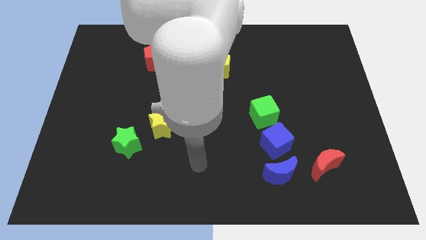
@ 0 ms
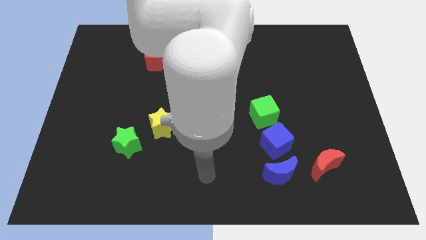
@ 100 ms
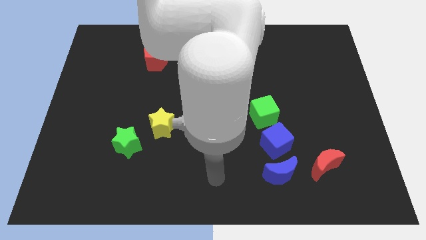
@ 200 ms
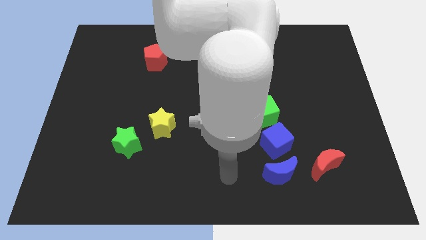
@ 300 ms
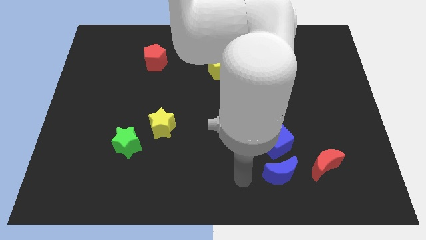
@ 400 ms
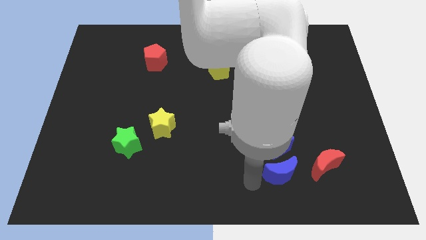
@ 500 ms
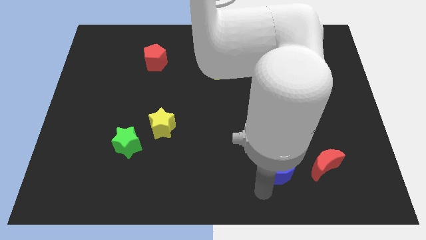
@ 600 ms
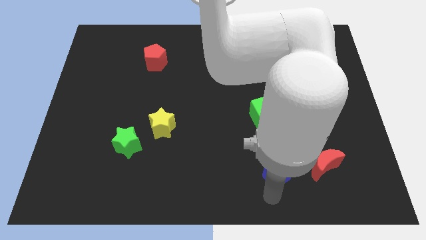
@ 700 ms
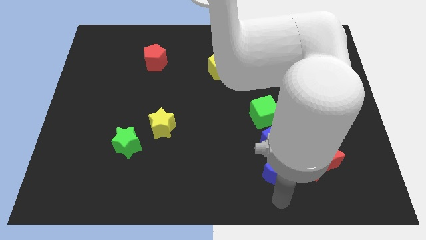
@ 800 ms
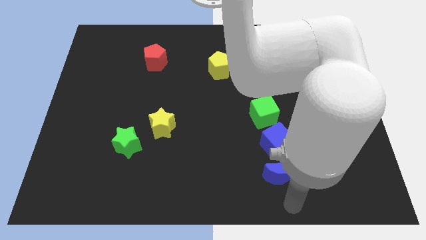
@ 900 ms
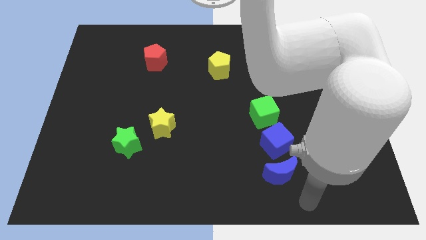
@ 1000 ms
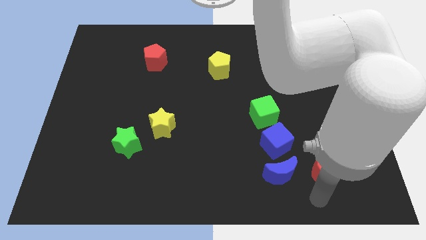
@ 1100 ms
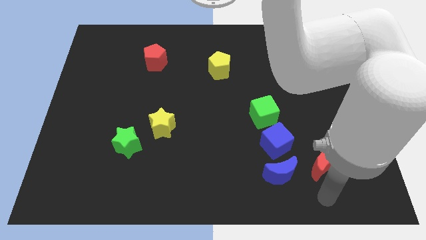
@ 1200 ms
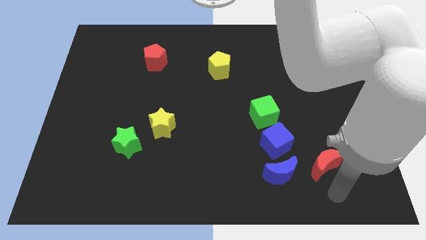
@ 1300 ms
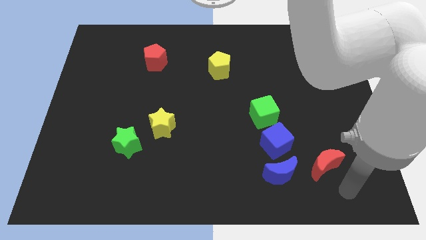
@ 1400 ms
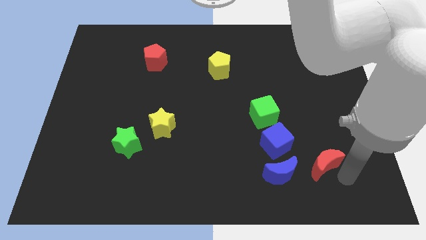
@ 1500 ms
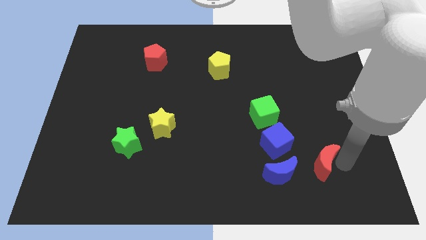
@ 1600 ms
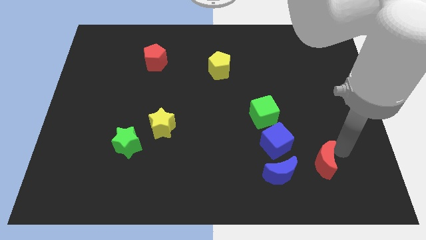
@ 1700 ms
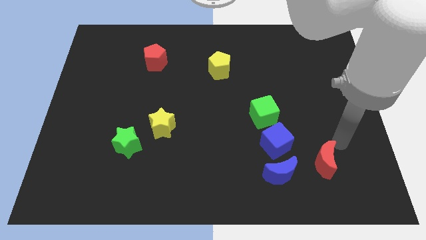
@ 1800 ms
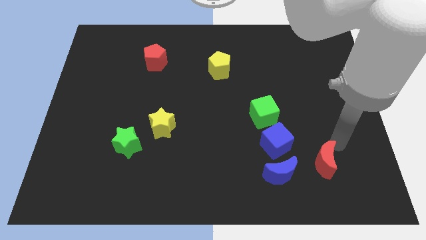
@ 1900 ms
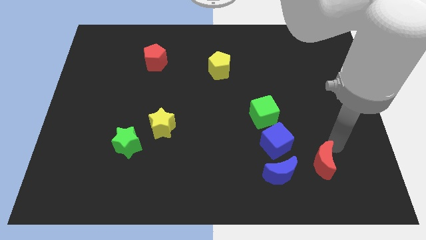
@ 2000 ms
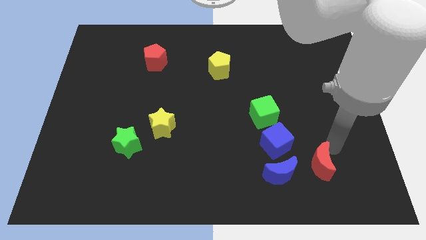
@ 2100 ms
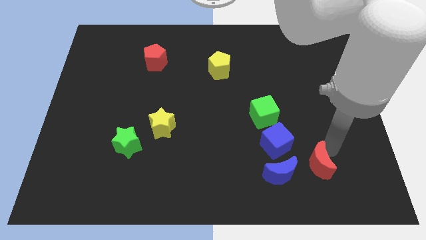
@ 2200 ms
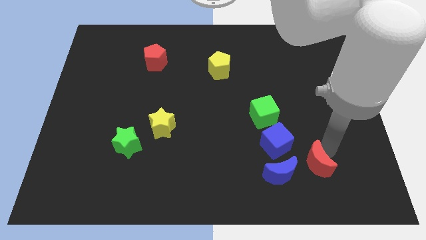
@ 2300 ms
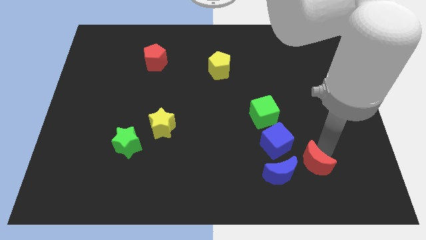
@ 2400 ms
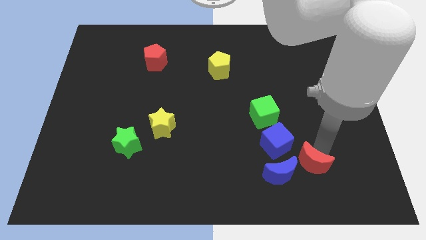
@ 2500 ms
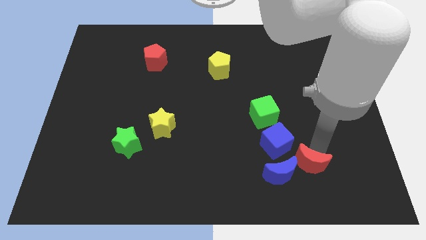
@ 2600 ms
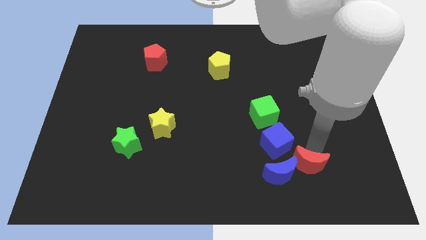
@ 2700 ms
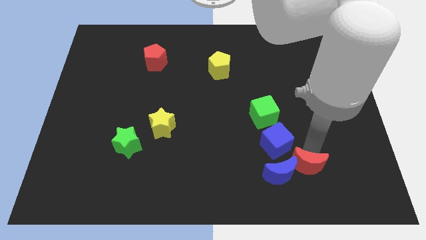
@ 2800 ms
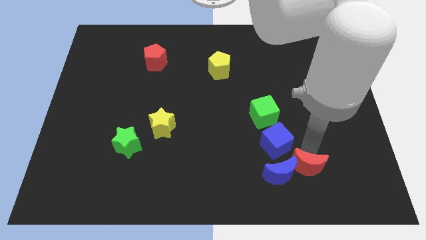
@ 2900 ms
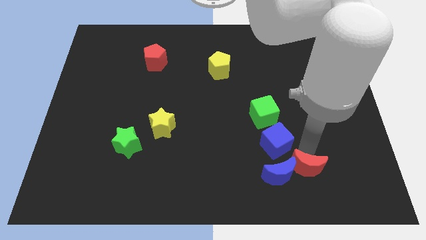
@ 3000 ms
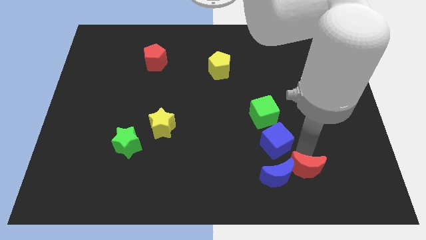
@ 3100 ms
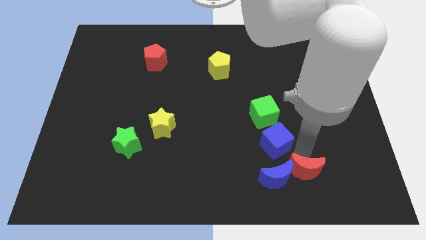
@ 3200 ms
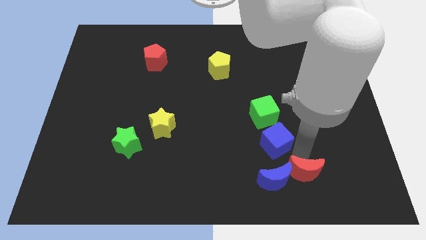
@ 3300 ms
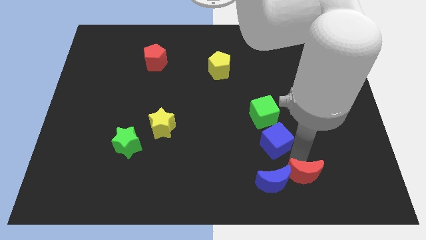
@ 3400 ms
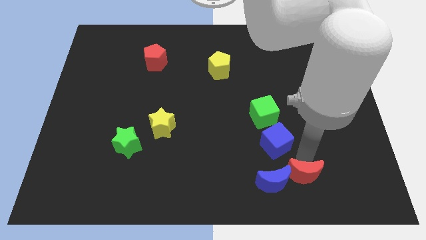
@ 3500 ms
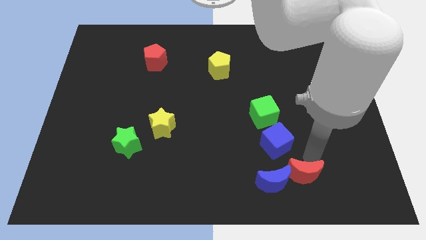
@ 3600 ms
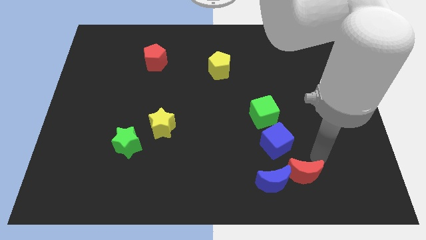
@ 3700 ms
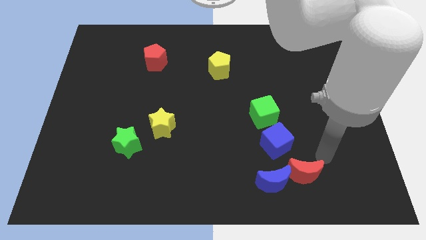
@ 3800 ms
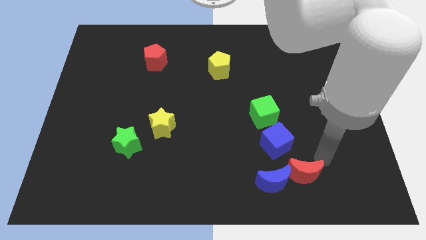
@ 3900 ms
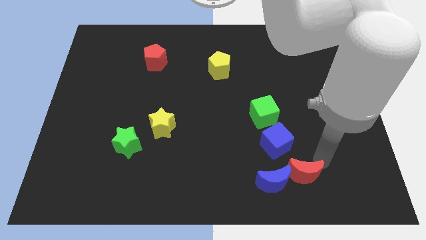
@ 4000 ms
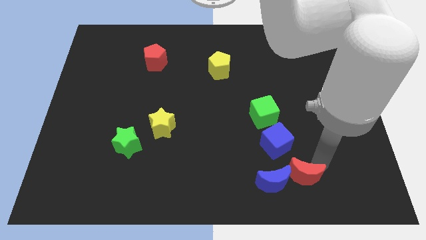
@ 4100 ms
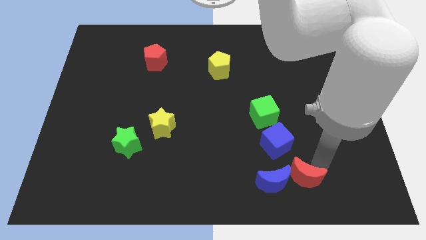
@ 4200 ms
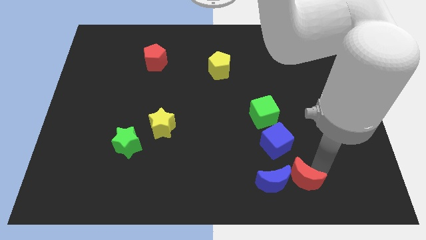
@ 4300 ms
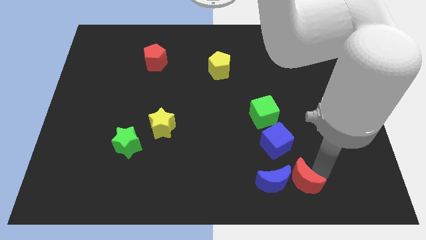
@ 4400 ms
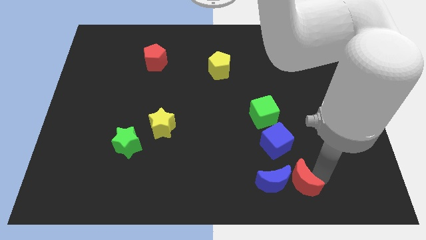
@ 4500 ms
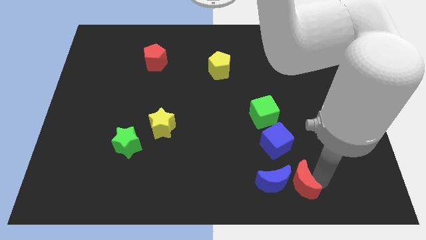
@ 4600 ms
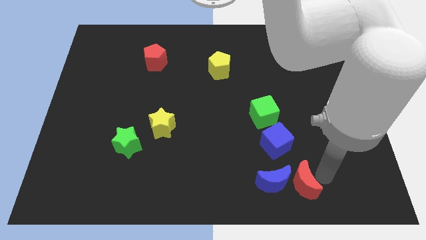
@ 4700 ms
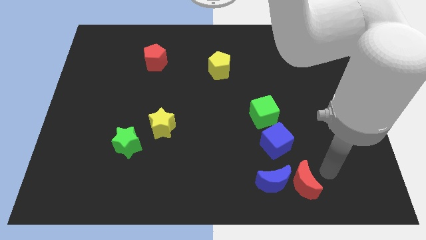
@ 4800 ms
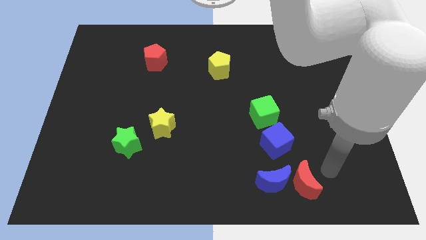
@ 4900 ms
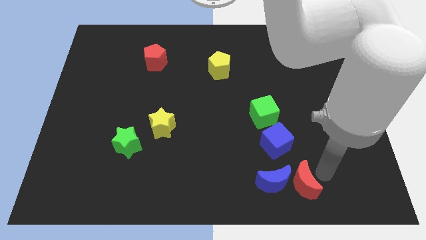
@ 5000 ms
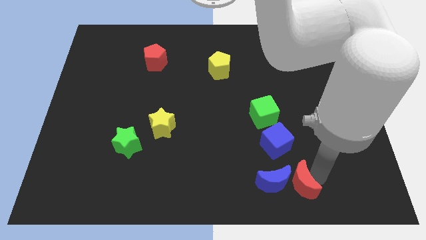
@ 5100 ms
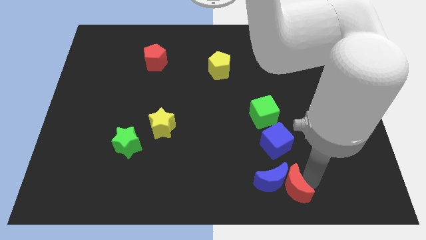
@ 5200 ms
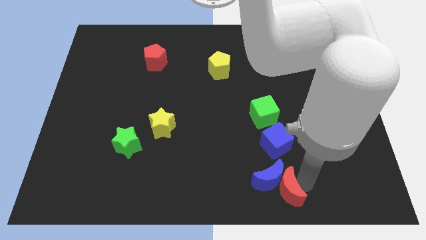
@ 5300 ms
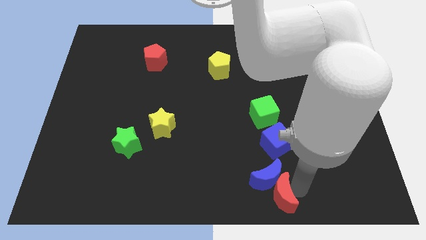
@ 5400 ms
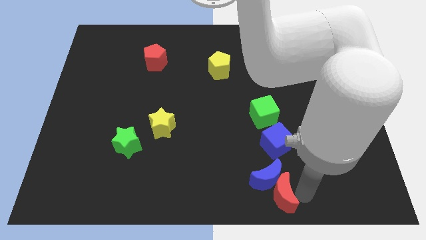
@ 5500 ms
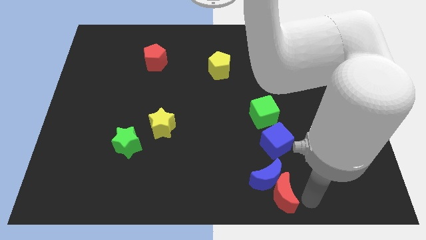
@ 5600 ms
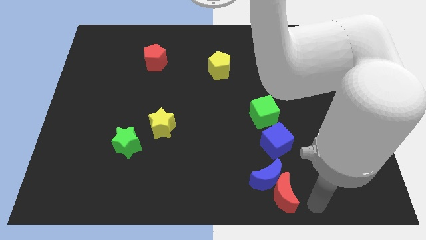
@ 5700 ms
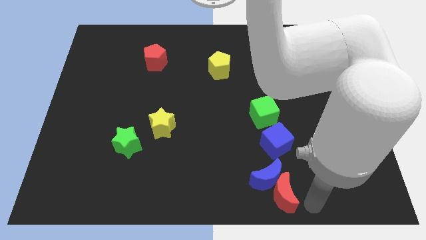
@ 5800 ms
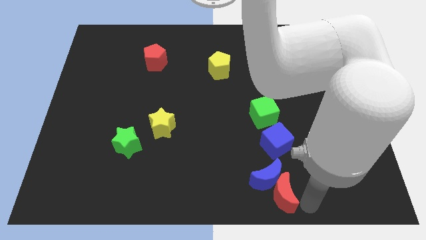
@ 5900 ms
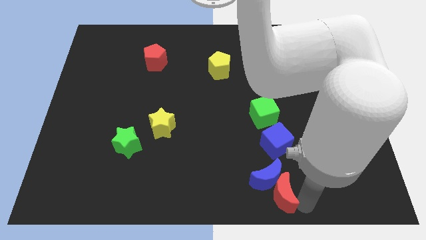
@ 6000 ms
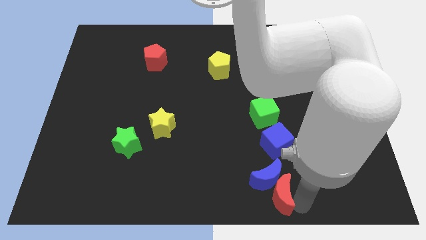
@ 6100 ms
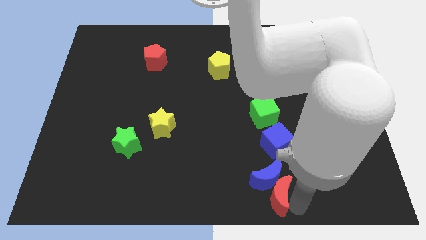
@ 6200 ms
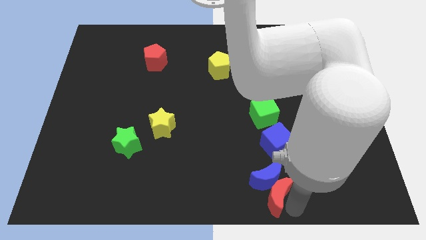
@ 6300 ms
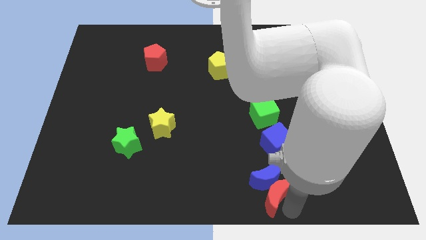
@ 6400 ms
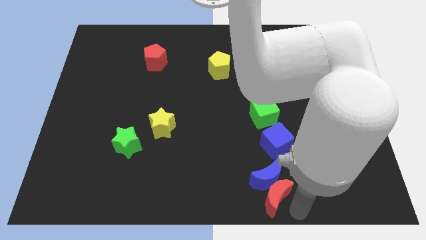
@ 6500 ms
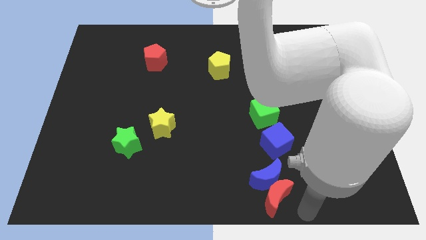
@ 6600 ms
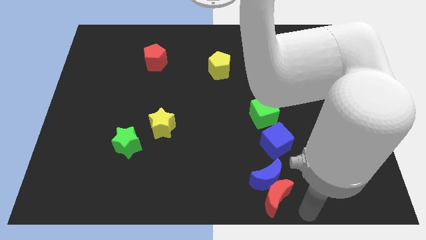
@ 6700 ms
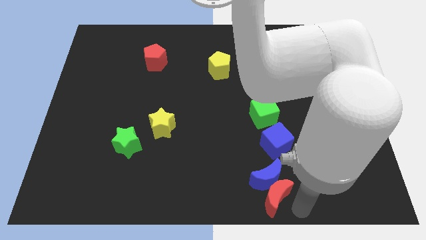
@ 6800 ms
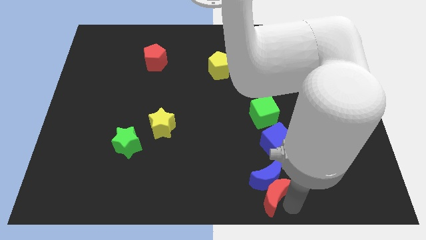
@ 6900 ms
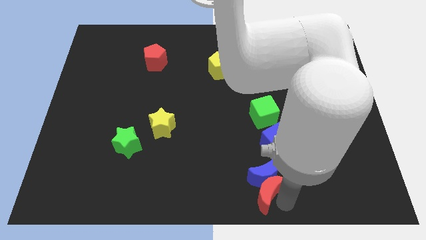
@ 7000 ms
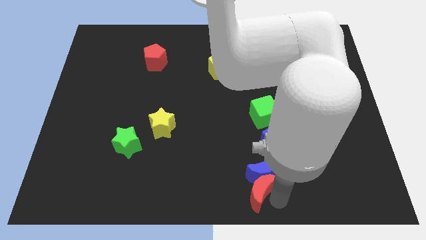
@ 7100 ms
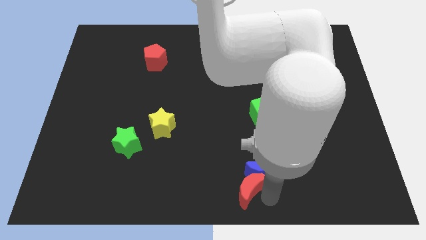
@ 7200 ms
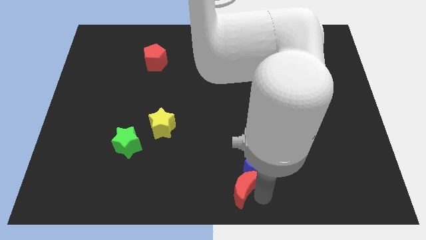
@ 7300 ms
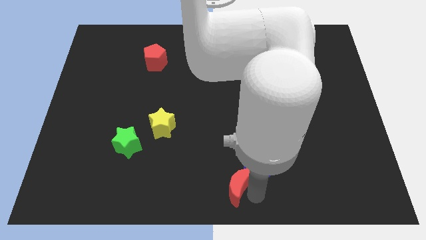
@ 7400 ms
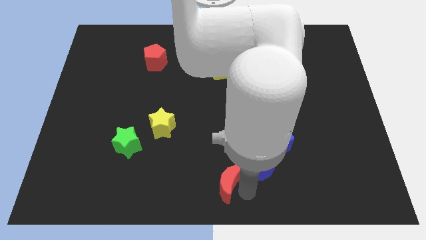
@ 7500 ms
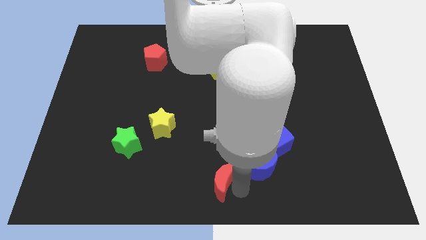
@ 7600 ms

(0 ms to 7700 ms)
move the red moon to the left

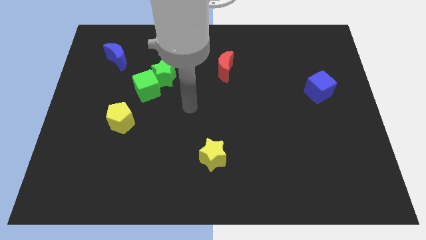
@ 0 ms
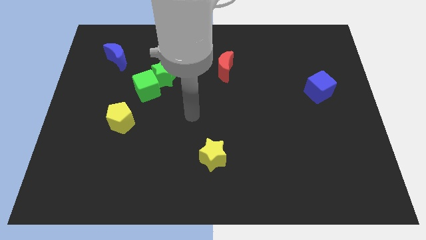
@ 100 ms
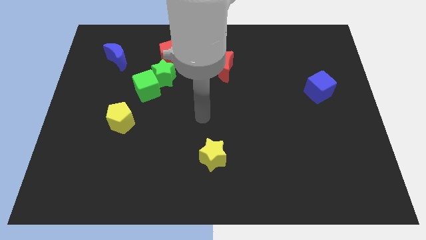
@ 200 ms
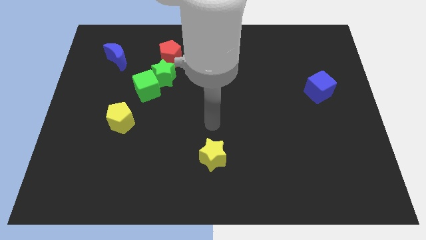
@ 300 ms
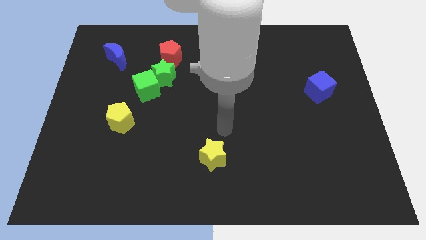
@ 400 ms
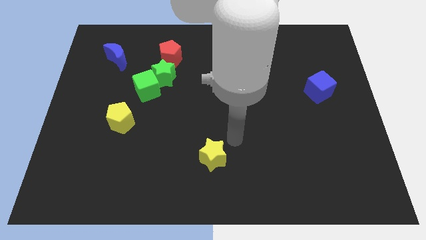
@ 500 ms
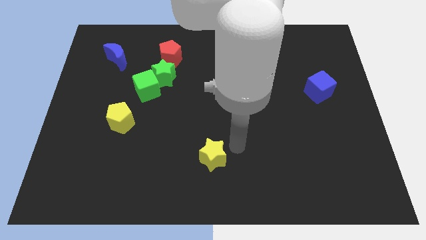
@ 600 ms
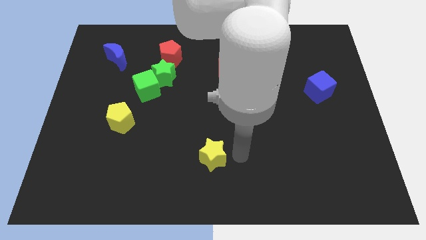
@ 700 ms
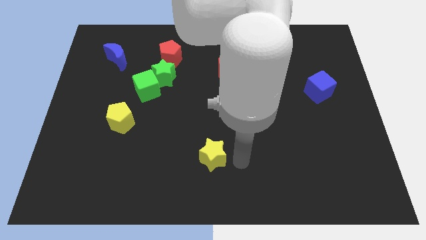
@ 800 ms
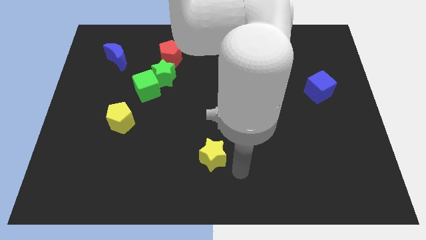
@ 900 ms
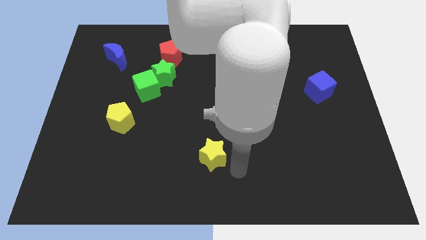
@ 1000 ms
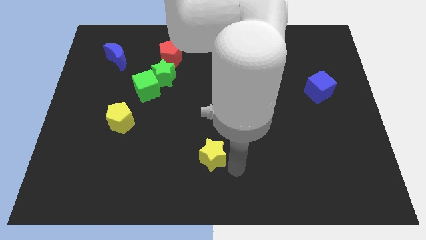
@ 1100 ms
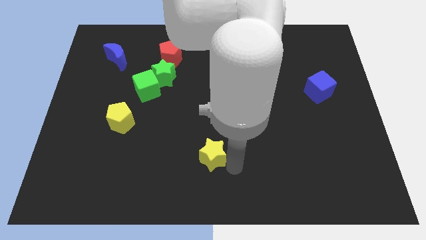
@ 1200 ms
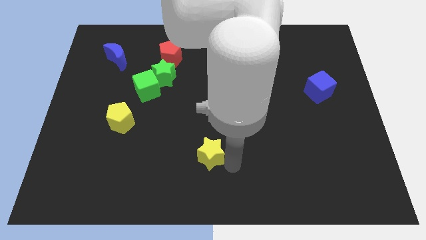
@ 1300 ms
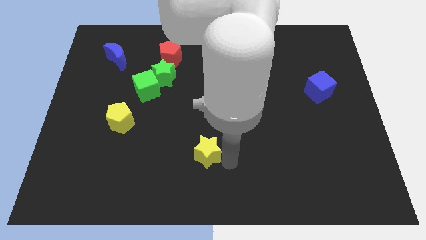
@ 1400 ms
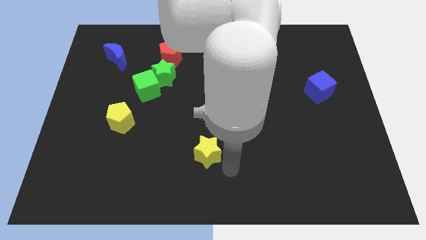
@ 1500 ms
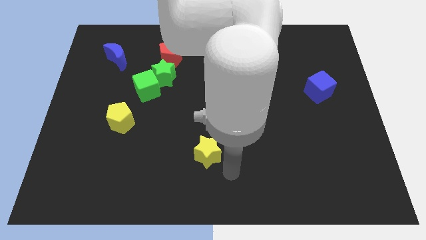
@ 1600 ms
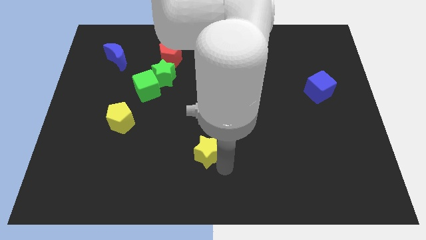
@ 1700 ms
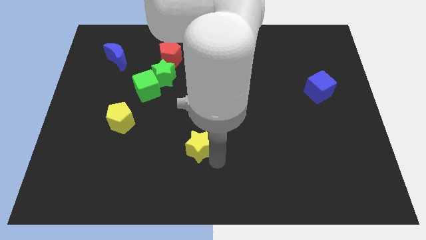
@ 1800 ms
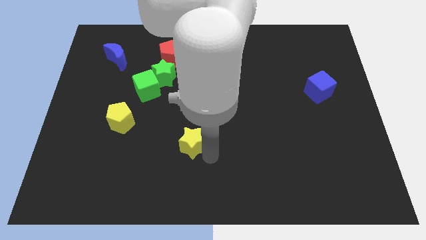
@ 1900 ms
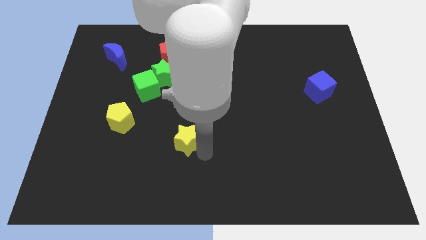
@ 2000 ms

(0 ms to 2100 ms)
push the yellow star slightly up and to the left diagonally
